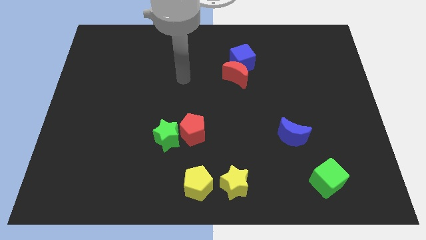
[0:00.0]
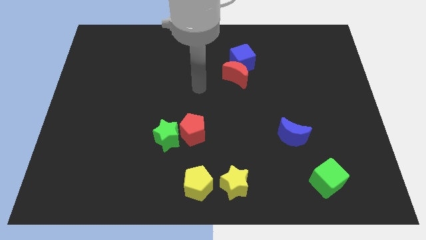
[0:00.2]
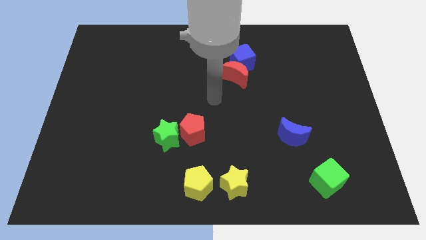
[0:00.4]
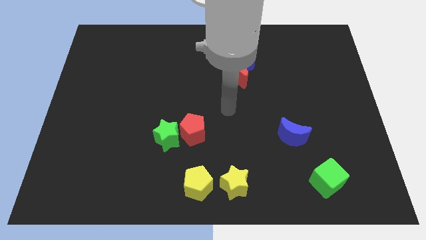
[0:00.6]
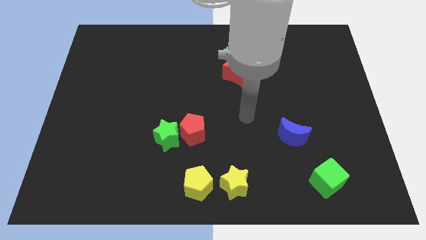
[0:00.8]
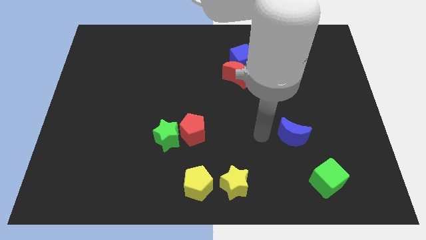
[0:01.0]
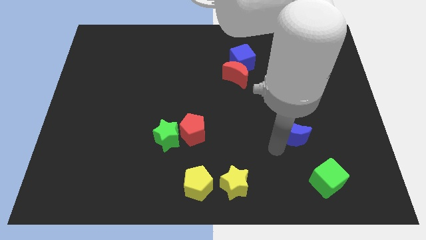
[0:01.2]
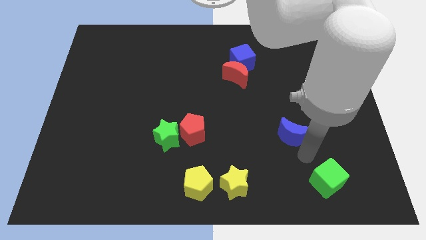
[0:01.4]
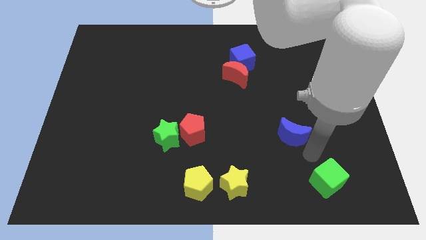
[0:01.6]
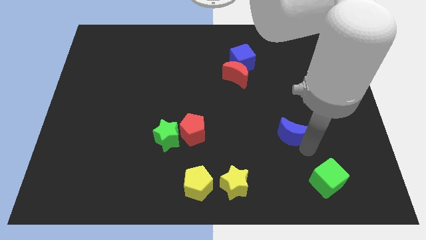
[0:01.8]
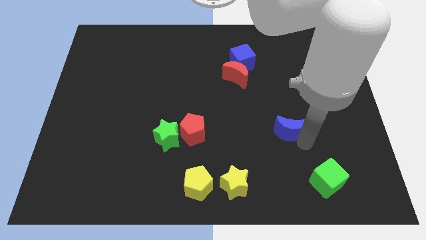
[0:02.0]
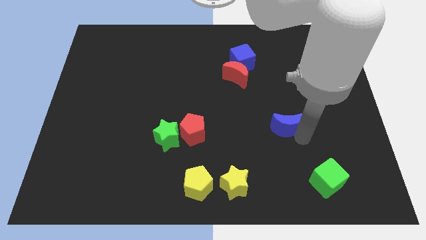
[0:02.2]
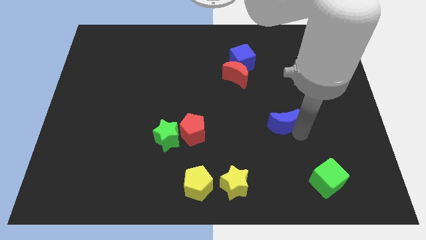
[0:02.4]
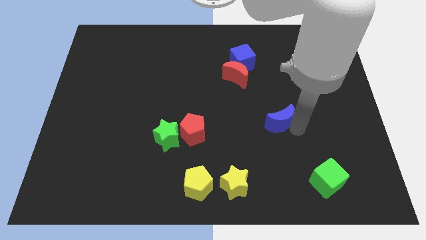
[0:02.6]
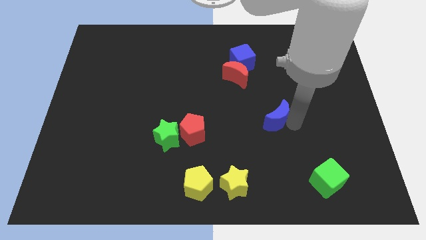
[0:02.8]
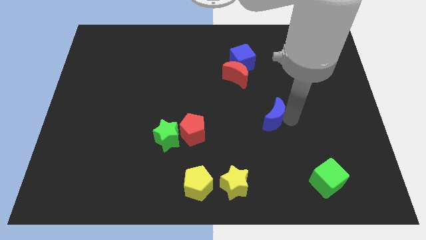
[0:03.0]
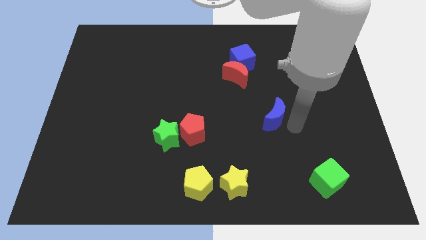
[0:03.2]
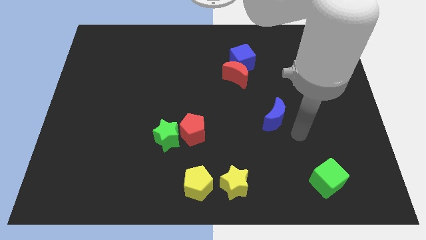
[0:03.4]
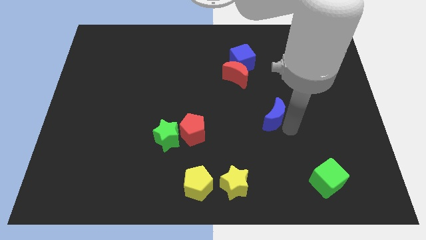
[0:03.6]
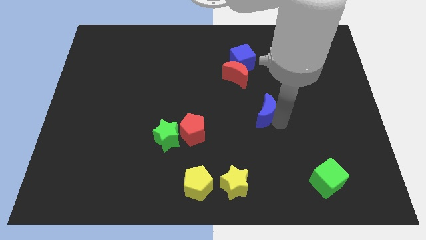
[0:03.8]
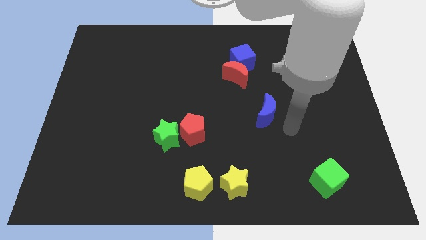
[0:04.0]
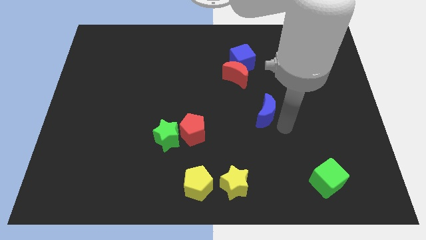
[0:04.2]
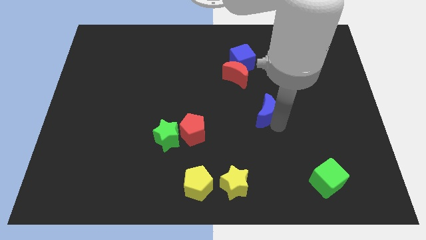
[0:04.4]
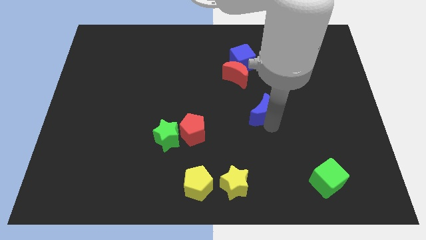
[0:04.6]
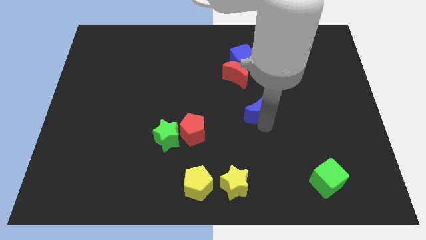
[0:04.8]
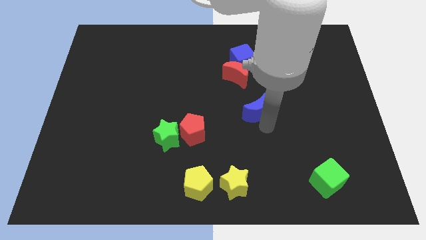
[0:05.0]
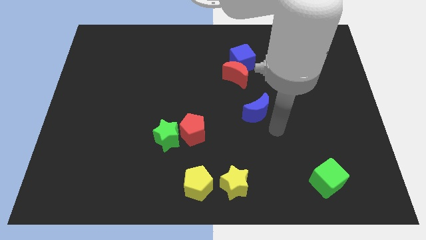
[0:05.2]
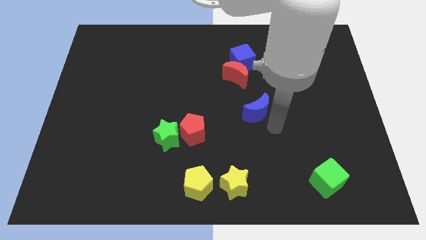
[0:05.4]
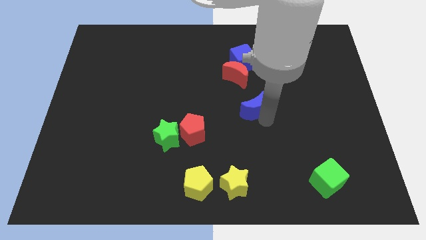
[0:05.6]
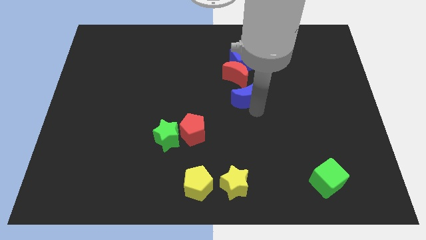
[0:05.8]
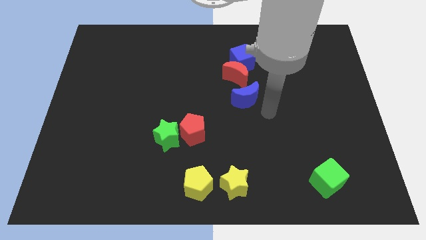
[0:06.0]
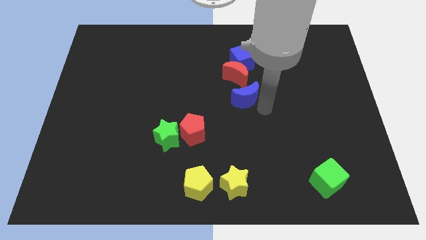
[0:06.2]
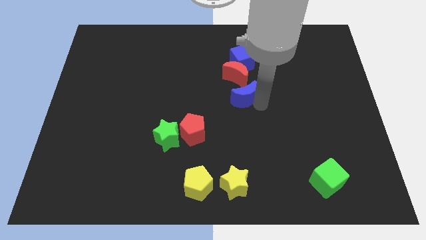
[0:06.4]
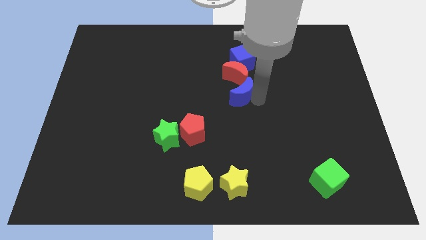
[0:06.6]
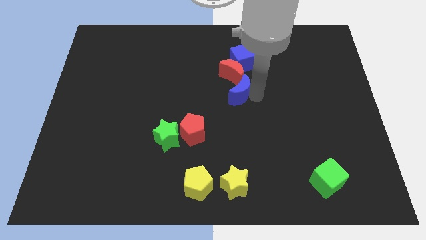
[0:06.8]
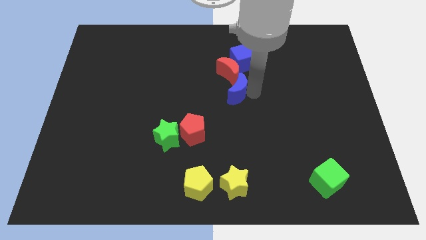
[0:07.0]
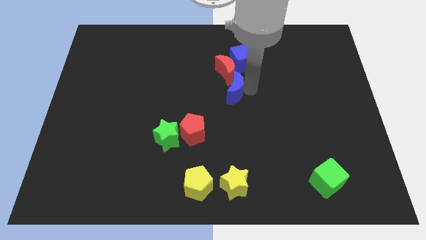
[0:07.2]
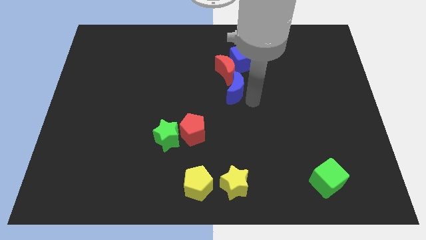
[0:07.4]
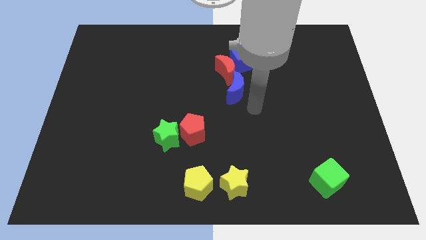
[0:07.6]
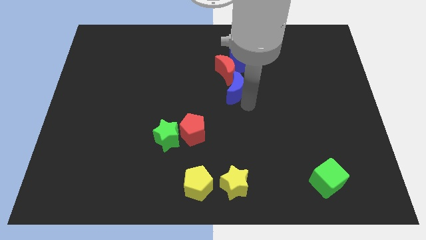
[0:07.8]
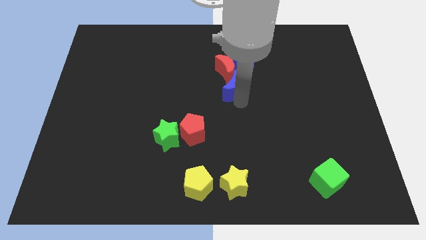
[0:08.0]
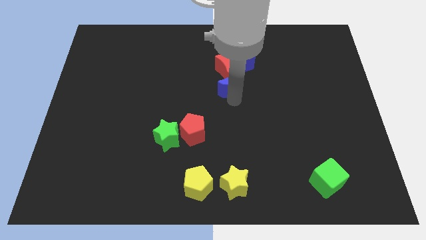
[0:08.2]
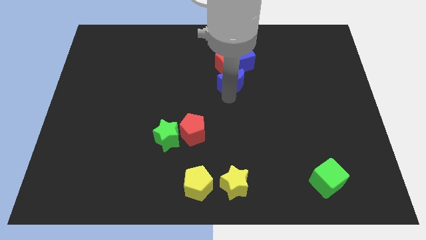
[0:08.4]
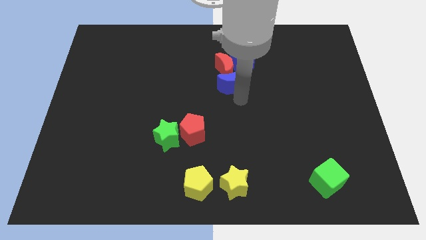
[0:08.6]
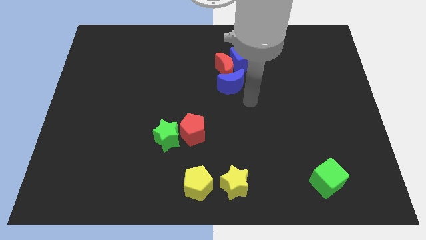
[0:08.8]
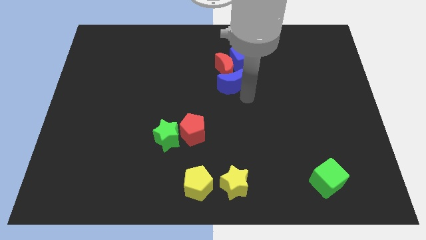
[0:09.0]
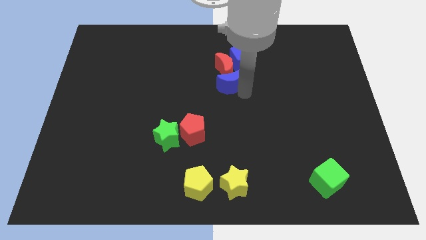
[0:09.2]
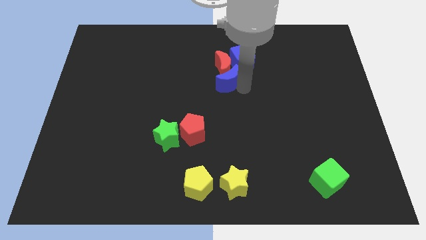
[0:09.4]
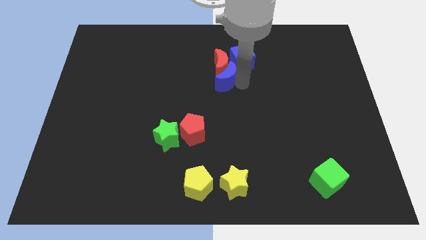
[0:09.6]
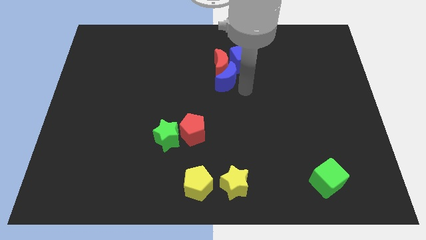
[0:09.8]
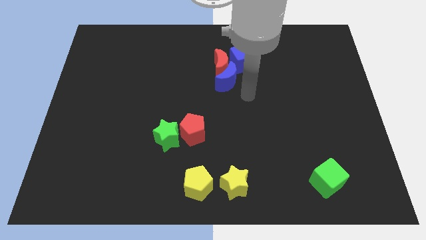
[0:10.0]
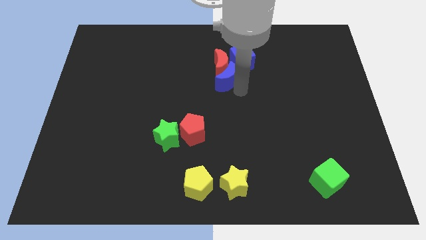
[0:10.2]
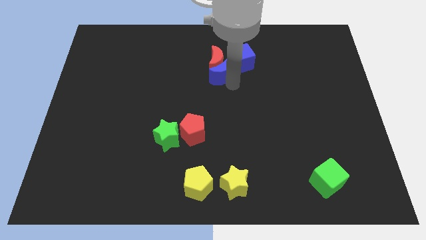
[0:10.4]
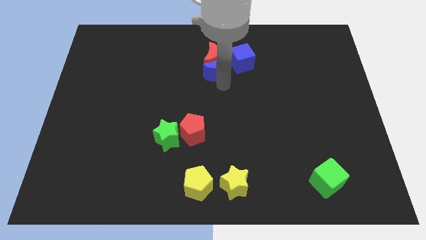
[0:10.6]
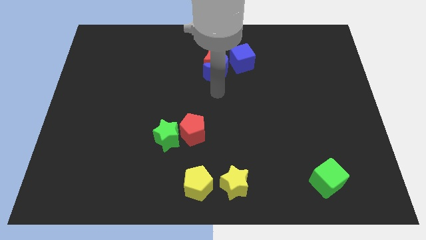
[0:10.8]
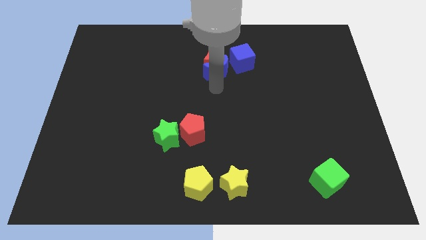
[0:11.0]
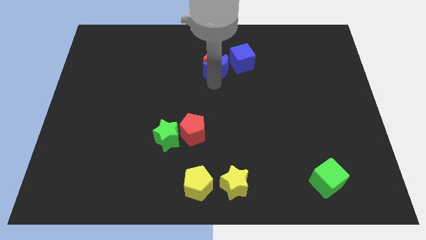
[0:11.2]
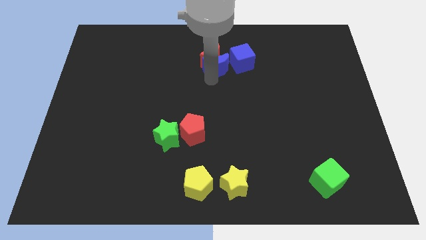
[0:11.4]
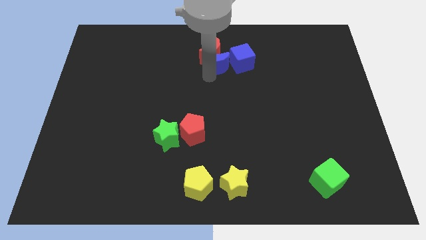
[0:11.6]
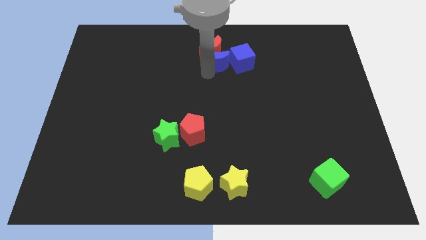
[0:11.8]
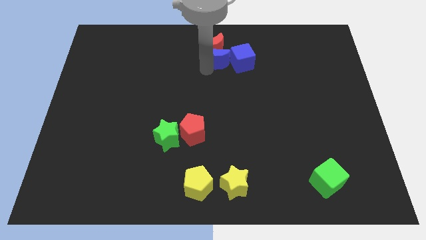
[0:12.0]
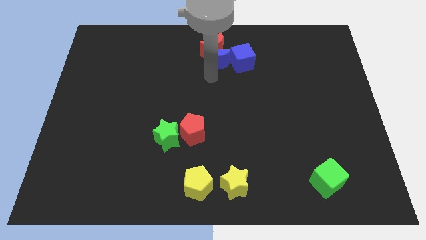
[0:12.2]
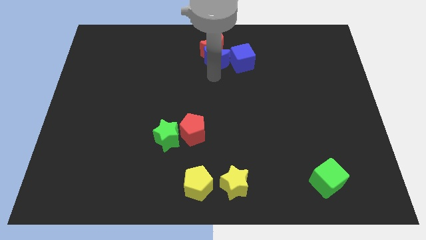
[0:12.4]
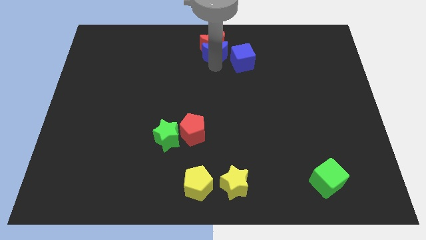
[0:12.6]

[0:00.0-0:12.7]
put the blue moon to the towards your base

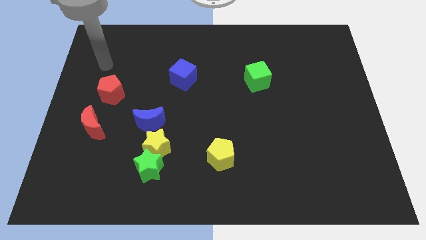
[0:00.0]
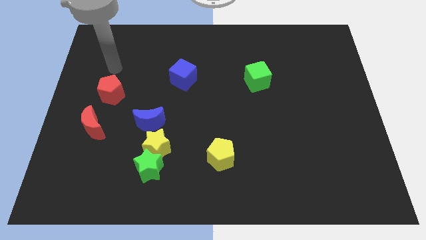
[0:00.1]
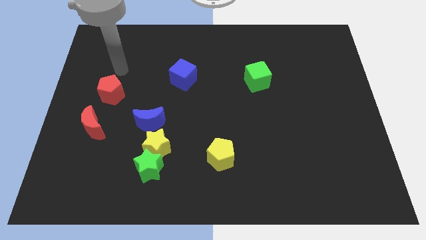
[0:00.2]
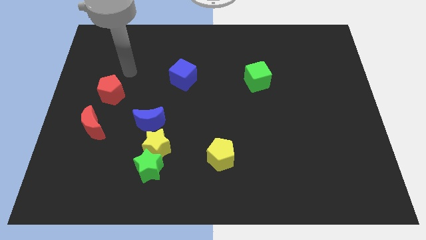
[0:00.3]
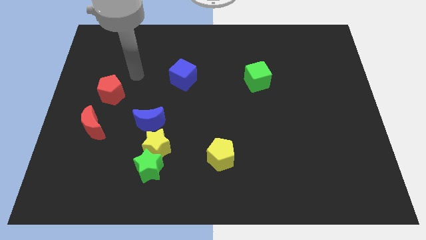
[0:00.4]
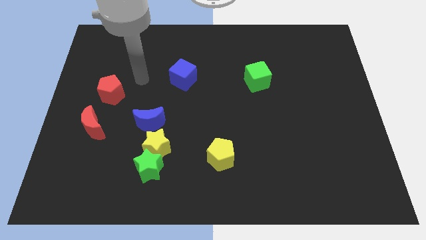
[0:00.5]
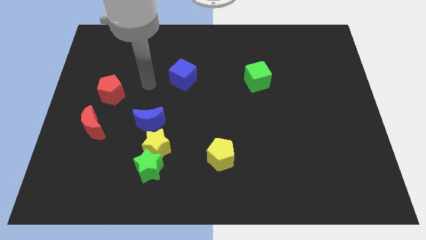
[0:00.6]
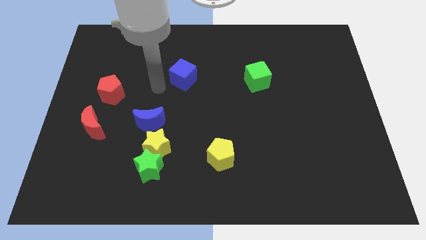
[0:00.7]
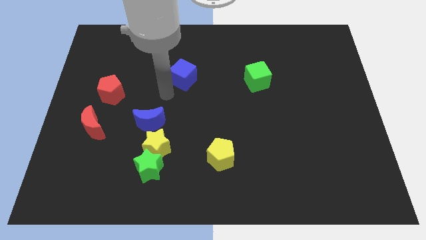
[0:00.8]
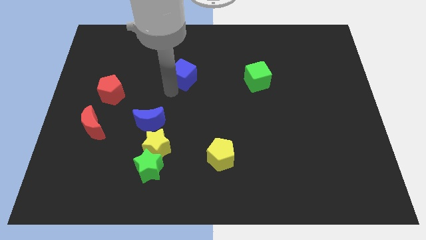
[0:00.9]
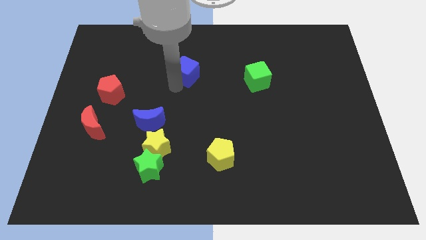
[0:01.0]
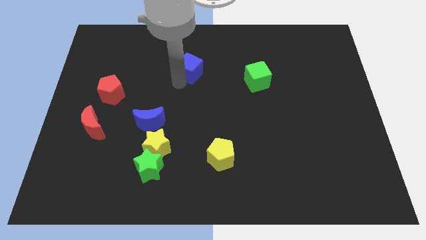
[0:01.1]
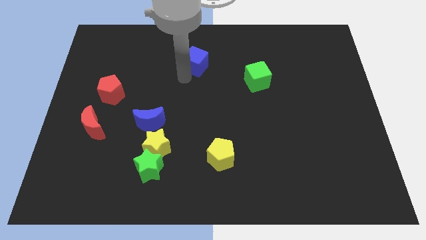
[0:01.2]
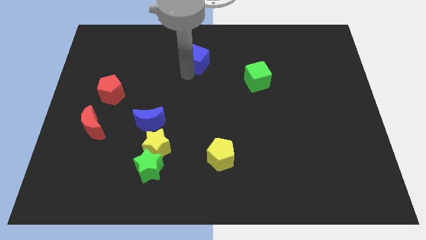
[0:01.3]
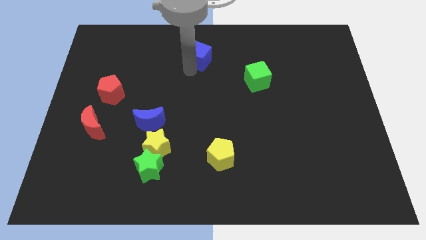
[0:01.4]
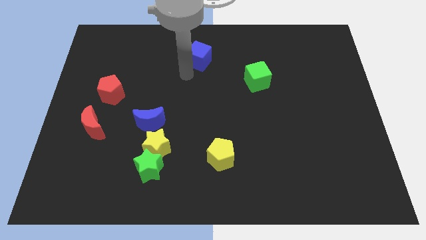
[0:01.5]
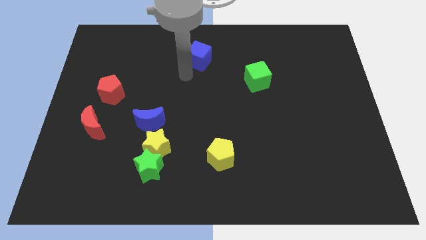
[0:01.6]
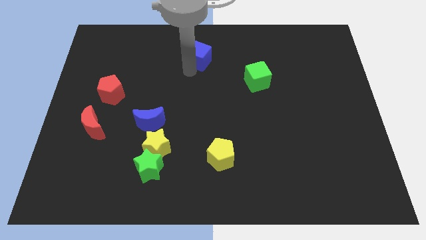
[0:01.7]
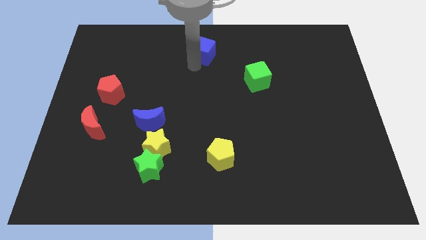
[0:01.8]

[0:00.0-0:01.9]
push the blue cube to the top side
